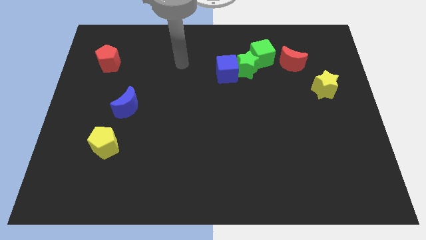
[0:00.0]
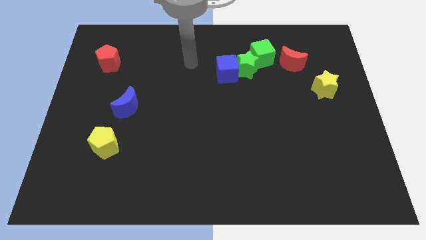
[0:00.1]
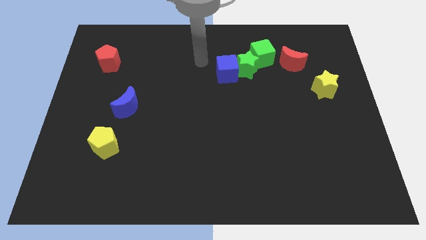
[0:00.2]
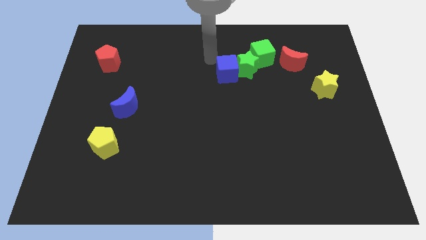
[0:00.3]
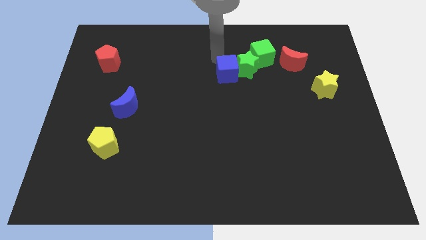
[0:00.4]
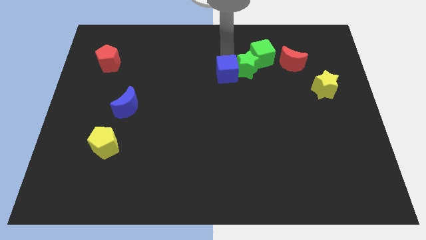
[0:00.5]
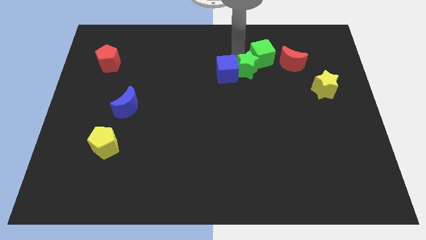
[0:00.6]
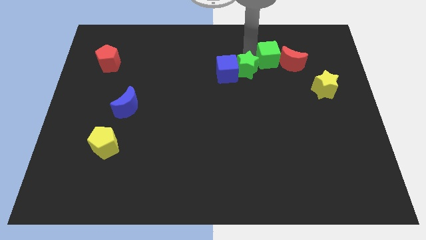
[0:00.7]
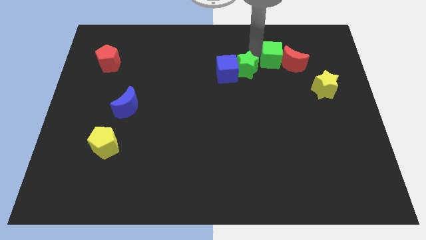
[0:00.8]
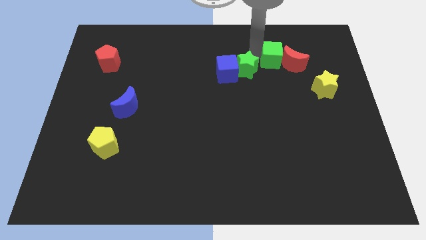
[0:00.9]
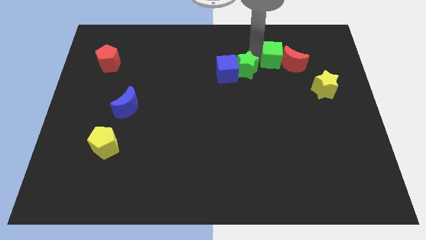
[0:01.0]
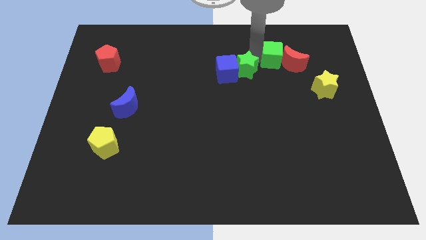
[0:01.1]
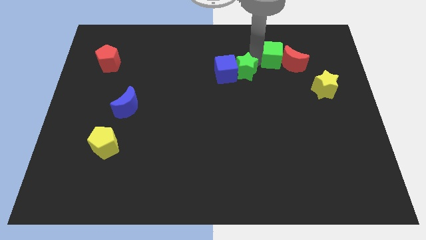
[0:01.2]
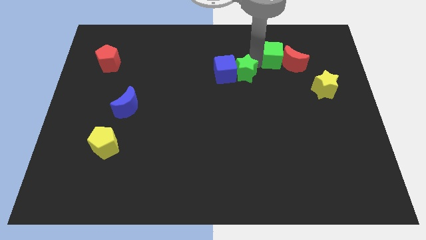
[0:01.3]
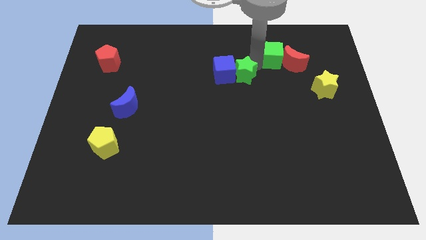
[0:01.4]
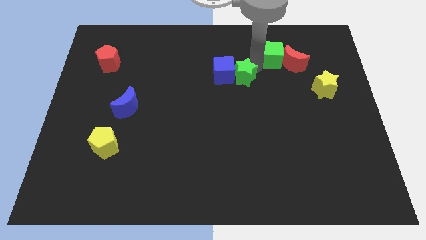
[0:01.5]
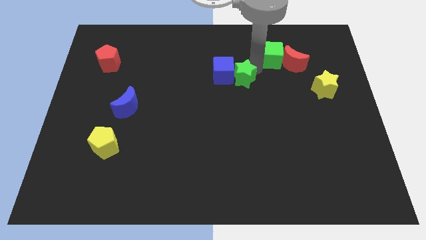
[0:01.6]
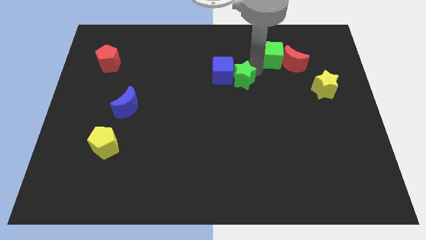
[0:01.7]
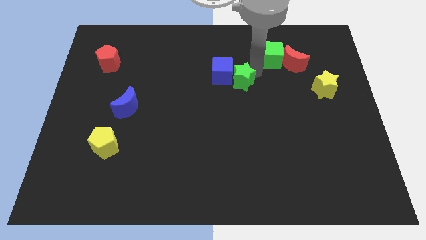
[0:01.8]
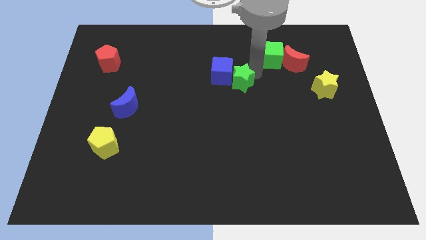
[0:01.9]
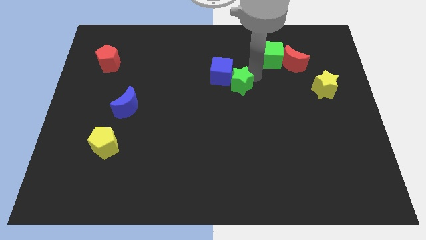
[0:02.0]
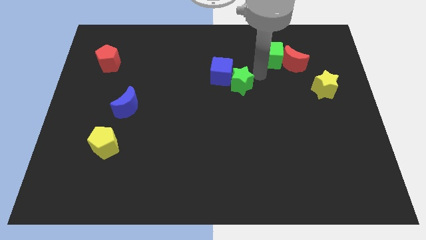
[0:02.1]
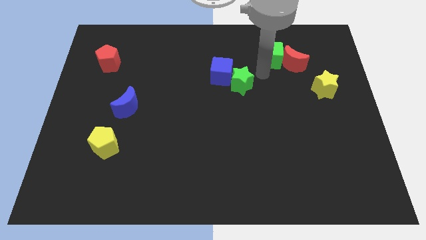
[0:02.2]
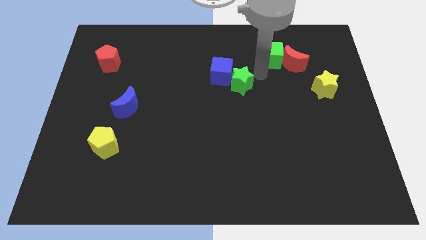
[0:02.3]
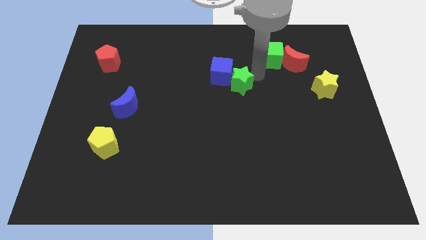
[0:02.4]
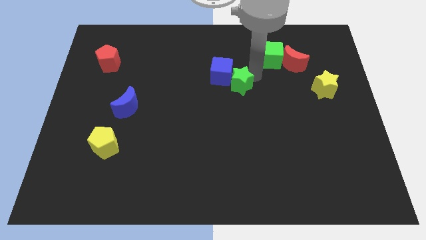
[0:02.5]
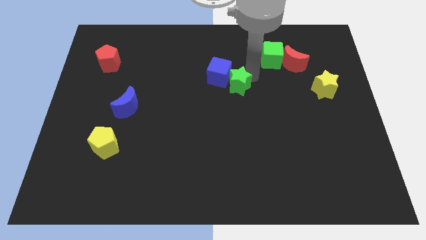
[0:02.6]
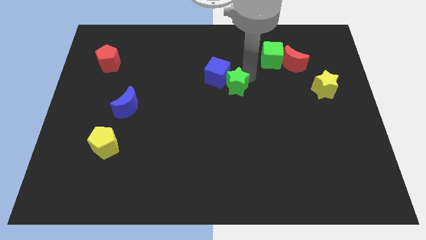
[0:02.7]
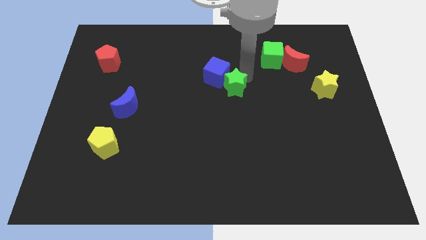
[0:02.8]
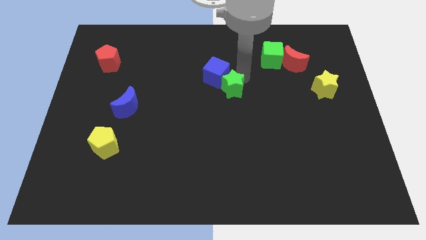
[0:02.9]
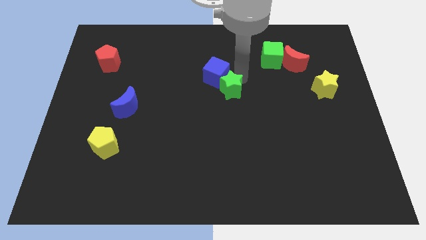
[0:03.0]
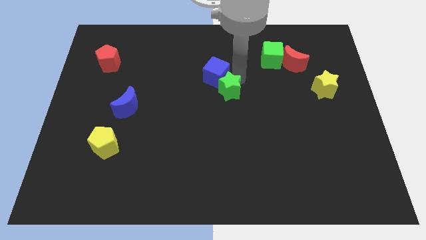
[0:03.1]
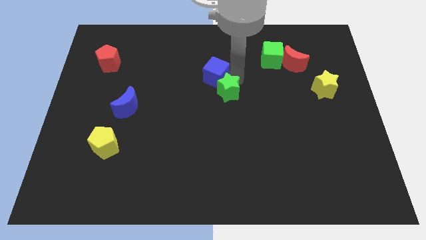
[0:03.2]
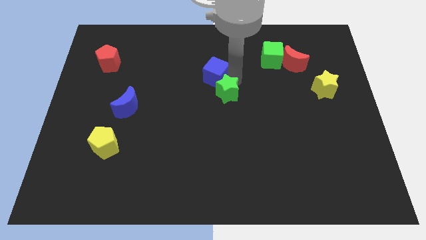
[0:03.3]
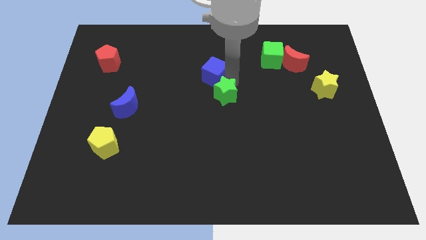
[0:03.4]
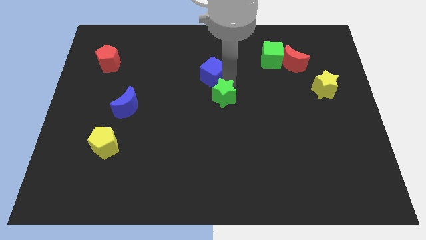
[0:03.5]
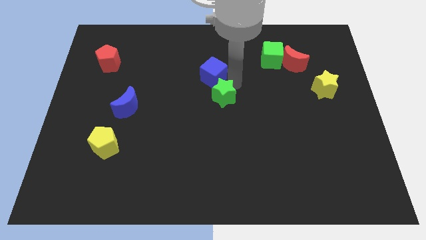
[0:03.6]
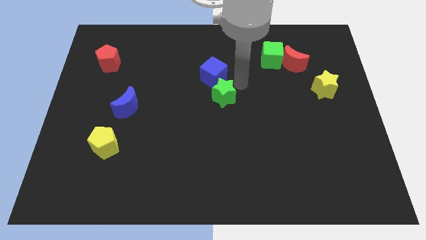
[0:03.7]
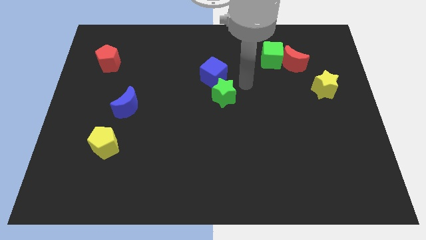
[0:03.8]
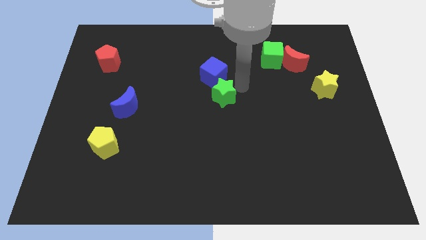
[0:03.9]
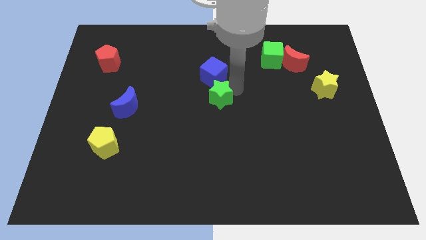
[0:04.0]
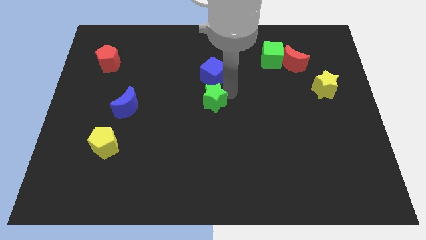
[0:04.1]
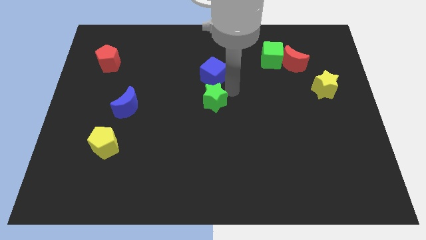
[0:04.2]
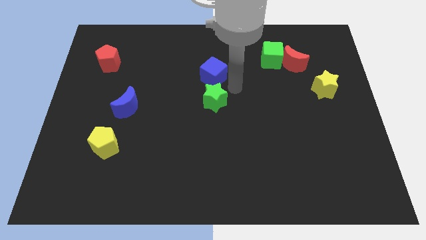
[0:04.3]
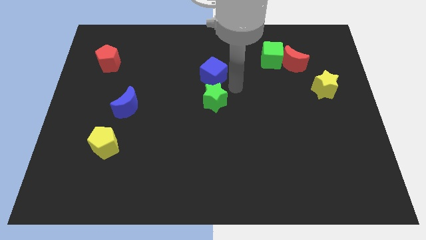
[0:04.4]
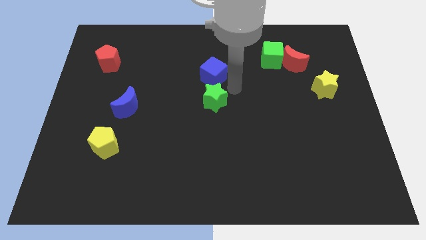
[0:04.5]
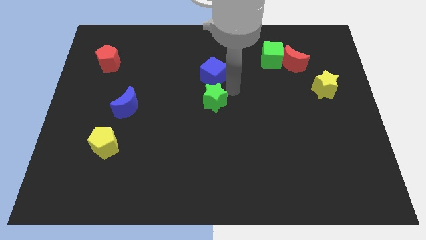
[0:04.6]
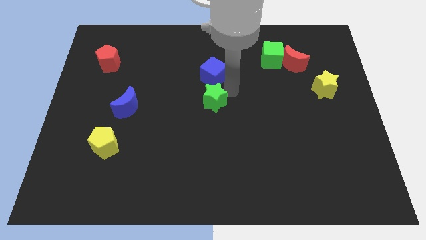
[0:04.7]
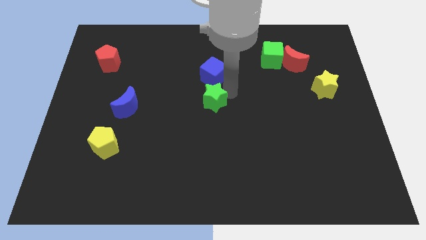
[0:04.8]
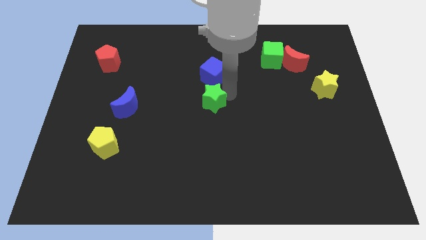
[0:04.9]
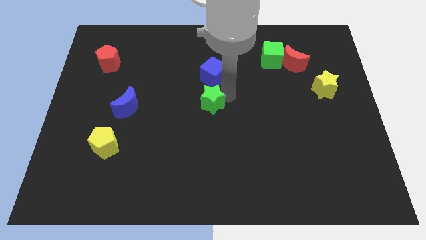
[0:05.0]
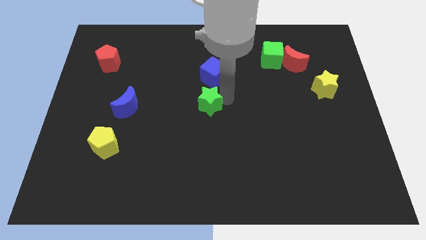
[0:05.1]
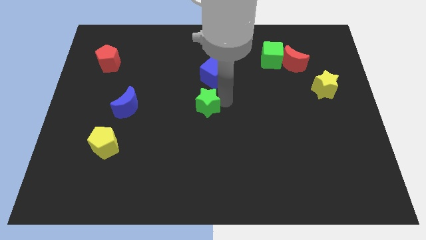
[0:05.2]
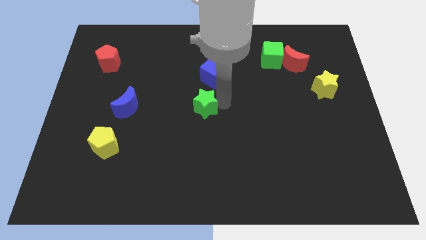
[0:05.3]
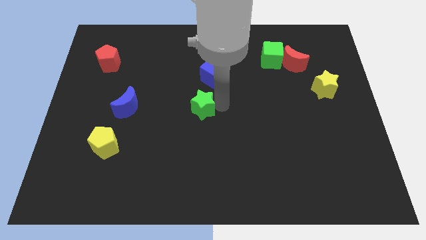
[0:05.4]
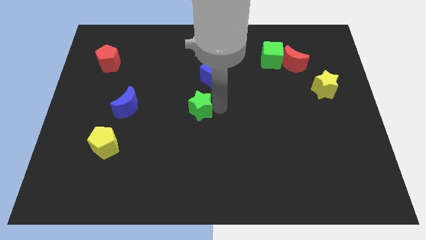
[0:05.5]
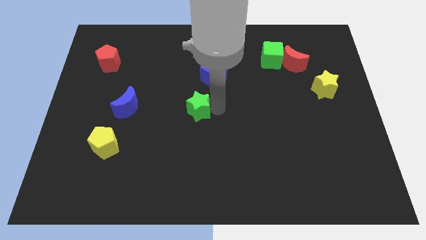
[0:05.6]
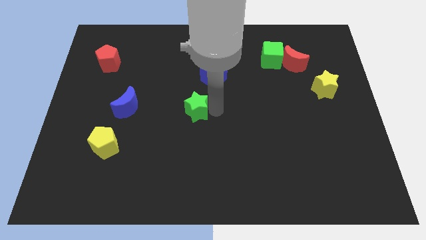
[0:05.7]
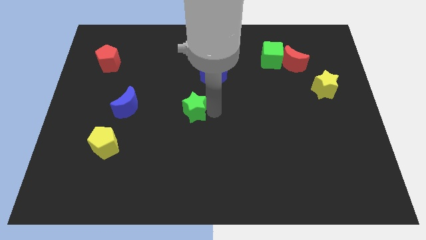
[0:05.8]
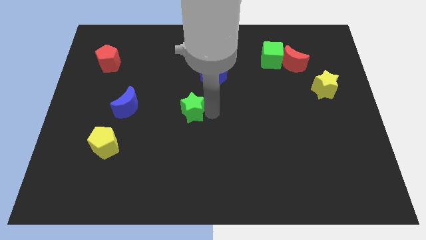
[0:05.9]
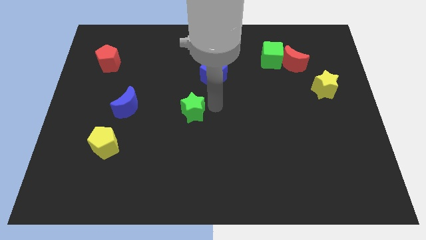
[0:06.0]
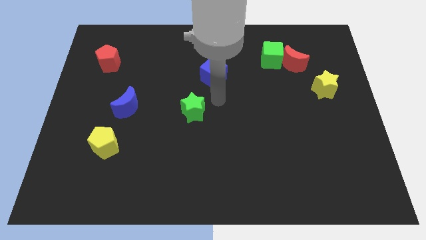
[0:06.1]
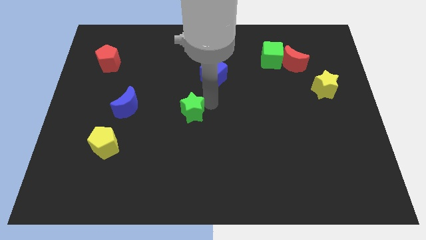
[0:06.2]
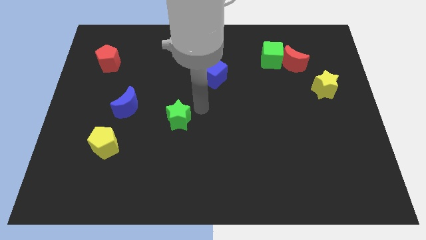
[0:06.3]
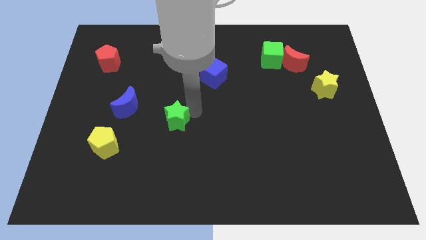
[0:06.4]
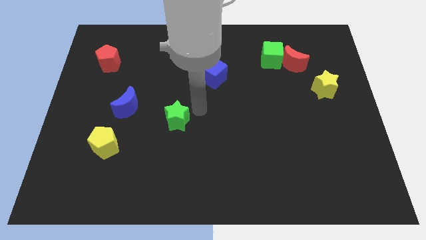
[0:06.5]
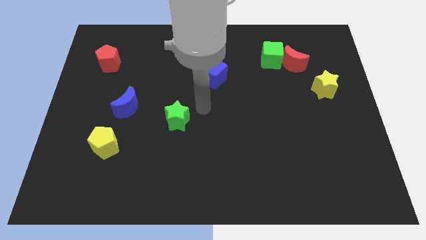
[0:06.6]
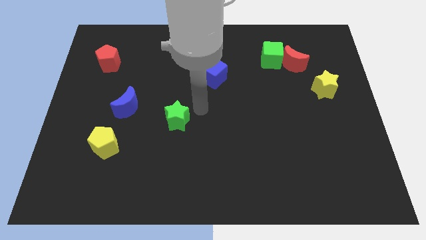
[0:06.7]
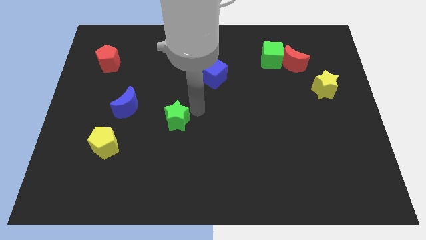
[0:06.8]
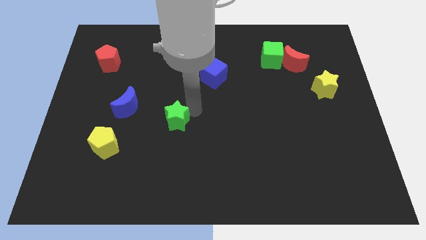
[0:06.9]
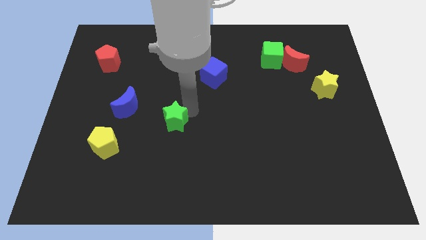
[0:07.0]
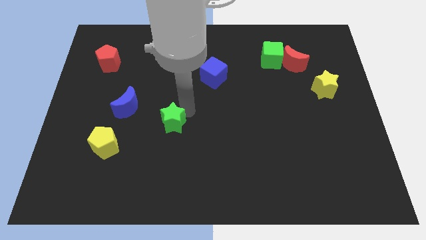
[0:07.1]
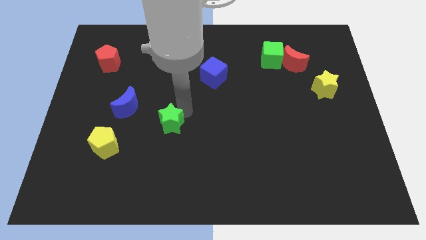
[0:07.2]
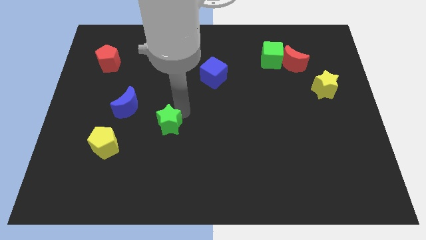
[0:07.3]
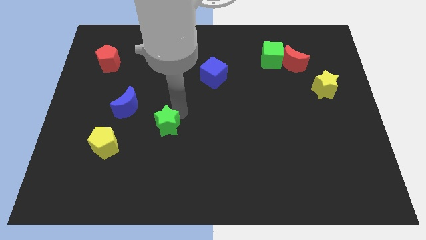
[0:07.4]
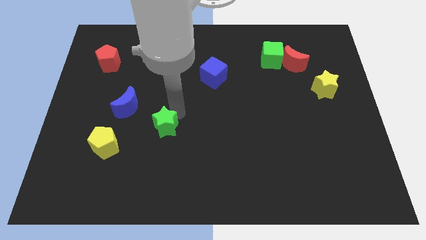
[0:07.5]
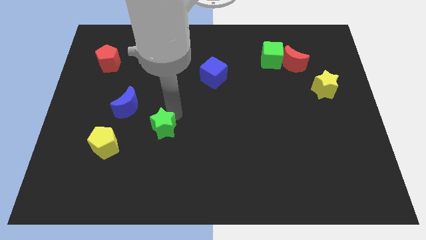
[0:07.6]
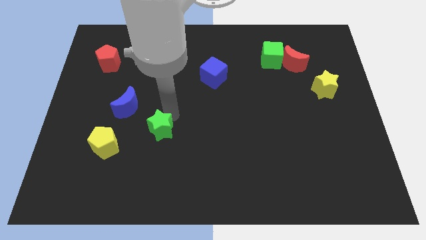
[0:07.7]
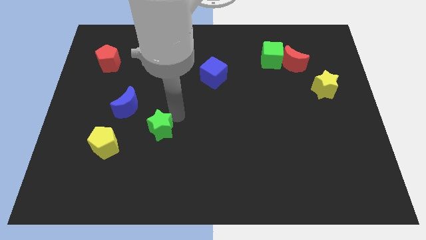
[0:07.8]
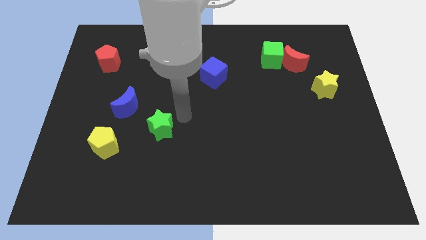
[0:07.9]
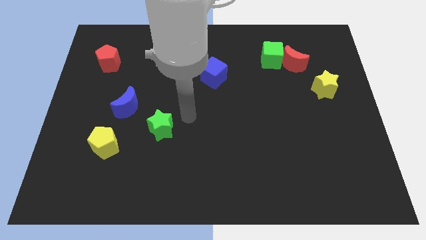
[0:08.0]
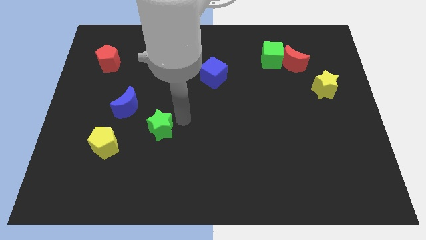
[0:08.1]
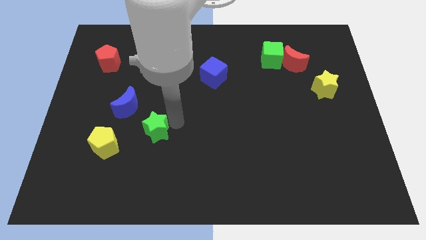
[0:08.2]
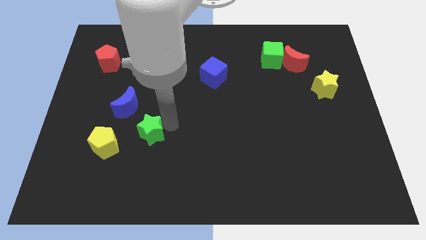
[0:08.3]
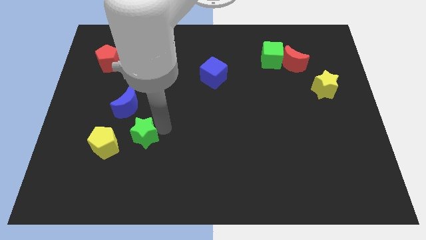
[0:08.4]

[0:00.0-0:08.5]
push the green star to the bottom of the blue moon
